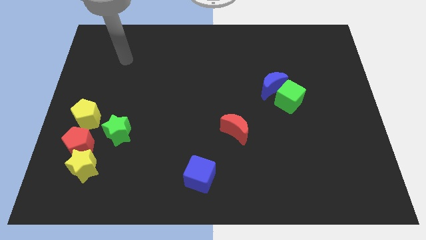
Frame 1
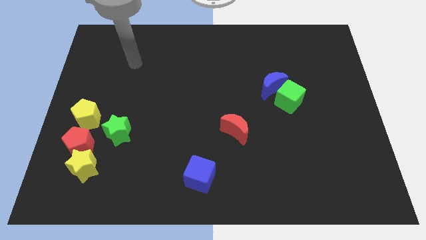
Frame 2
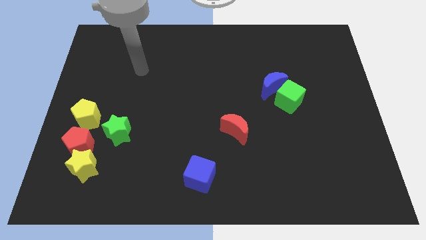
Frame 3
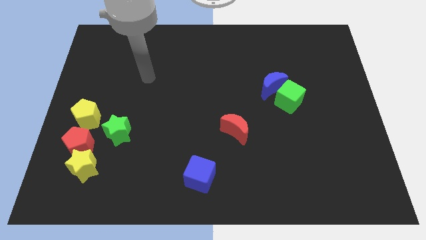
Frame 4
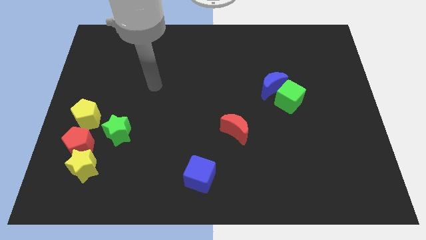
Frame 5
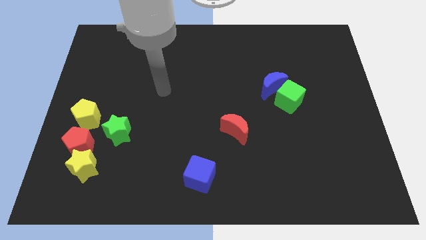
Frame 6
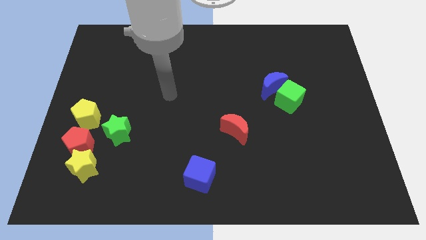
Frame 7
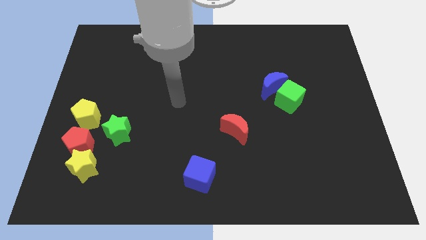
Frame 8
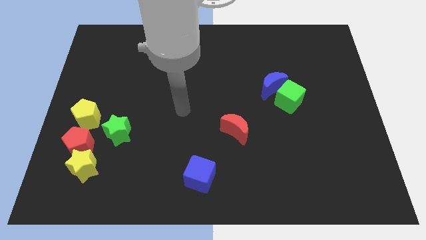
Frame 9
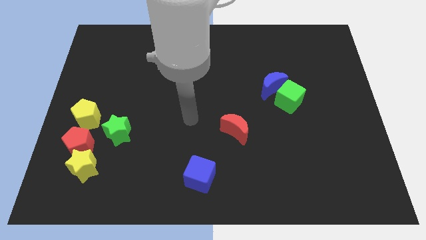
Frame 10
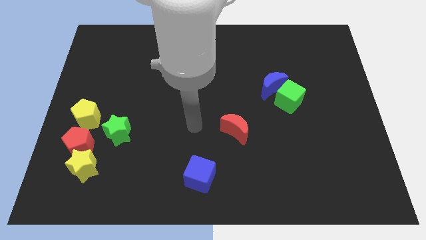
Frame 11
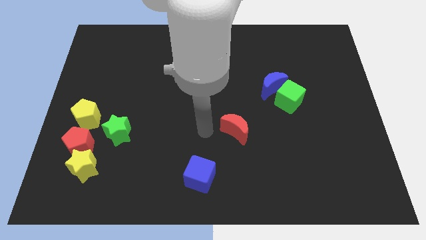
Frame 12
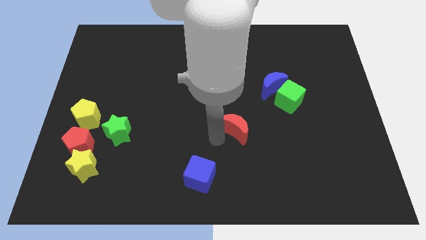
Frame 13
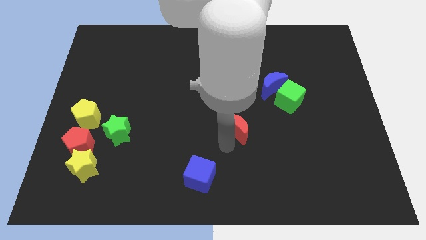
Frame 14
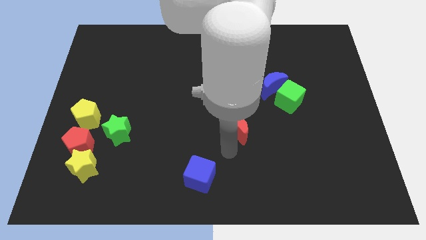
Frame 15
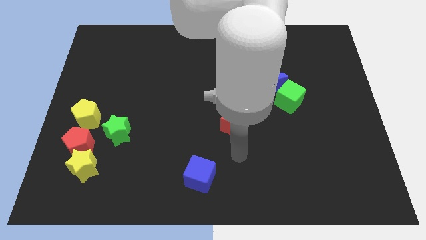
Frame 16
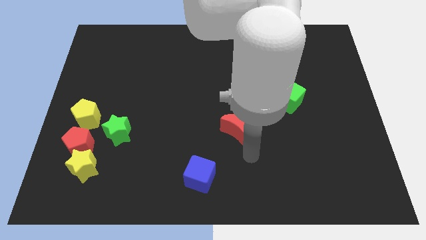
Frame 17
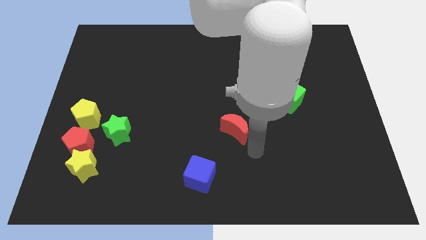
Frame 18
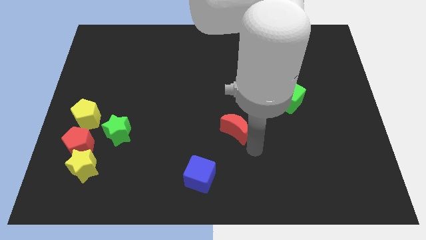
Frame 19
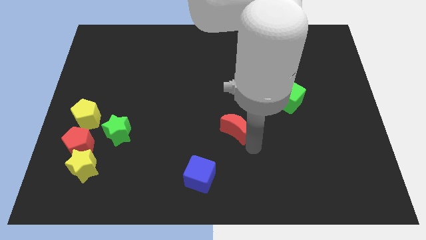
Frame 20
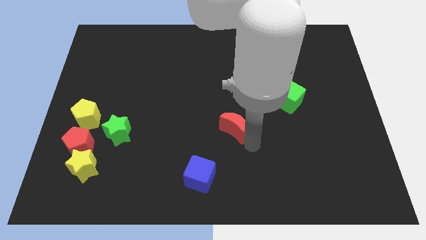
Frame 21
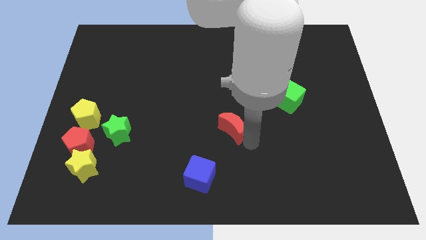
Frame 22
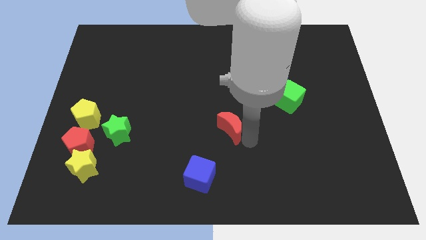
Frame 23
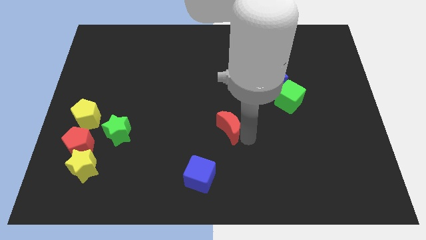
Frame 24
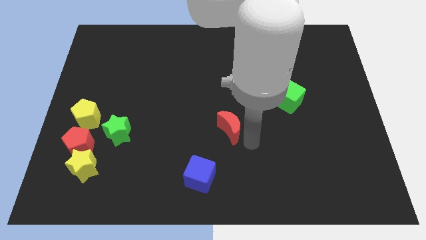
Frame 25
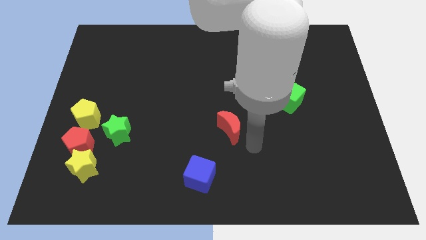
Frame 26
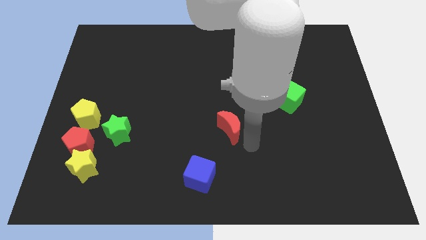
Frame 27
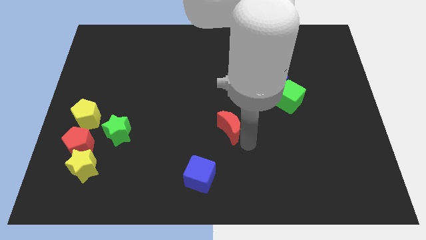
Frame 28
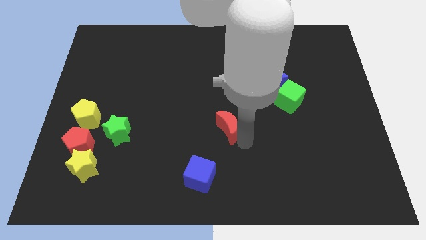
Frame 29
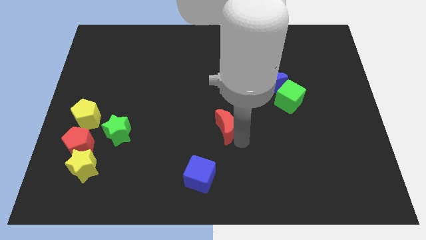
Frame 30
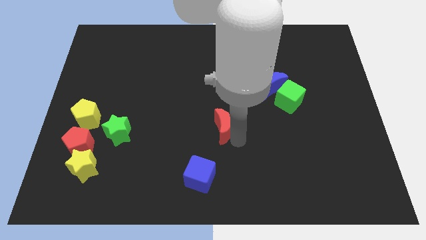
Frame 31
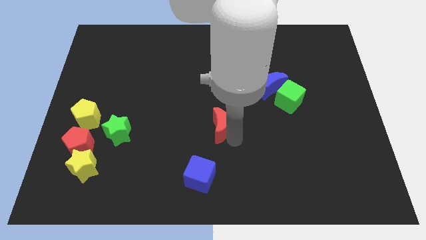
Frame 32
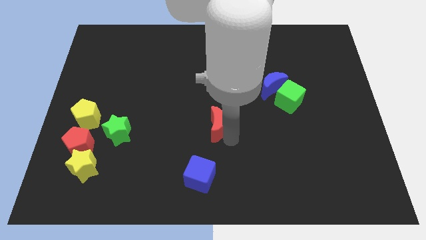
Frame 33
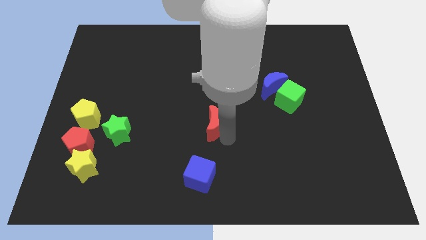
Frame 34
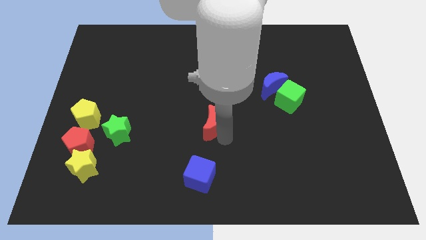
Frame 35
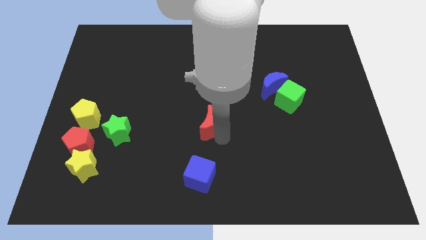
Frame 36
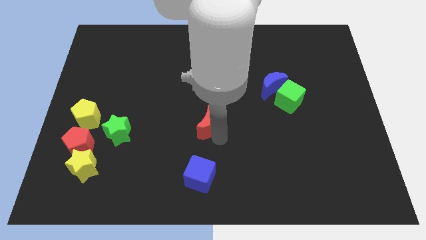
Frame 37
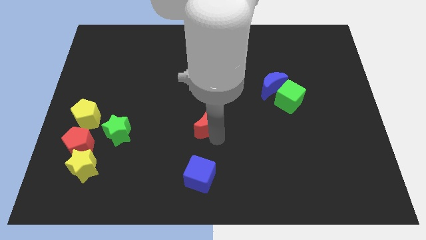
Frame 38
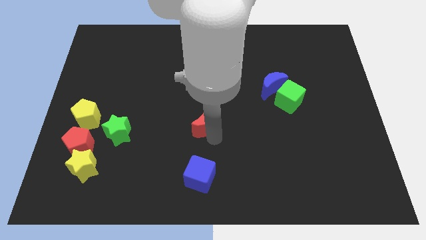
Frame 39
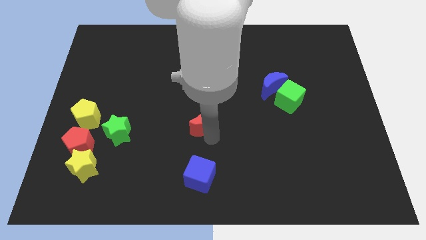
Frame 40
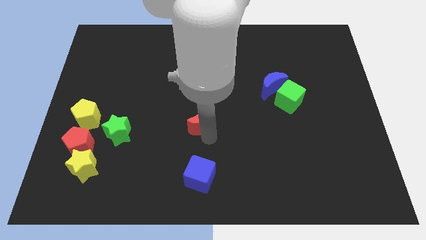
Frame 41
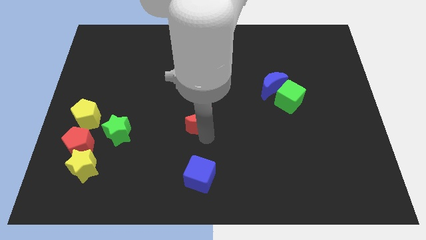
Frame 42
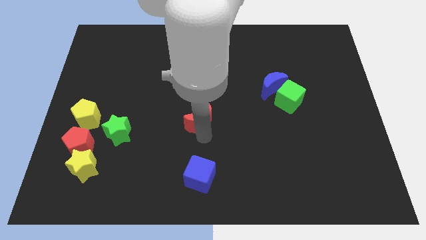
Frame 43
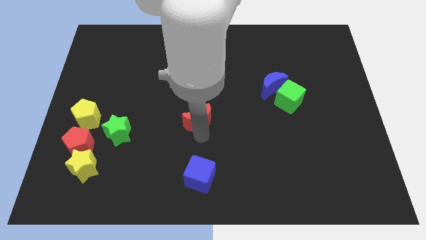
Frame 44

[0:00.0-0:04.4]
push the red moon upwards and then to the left somewhat

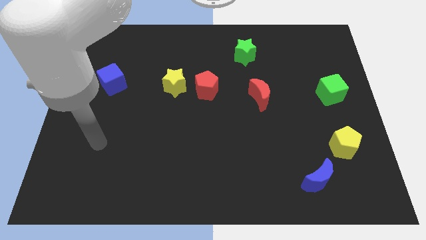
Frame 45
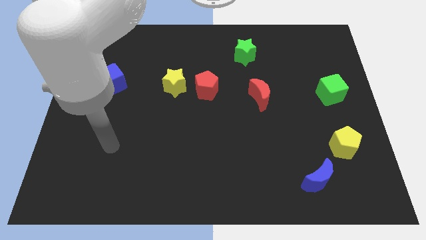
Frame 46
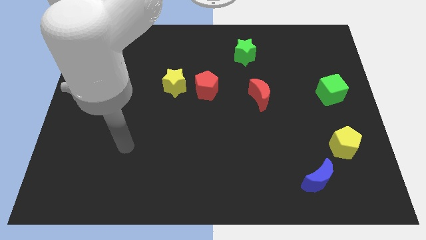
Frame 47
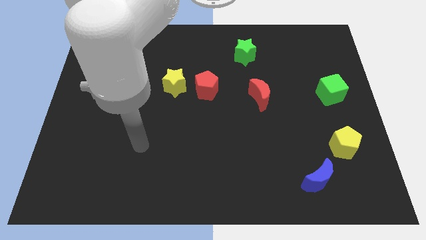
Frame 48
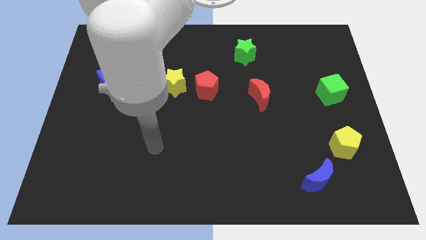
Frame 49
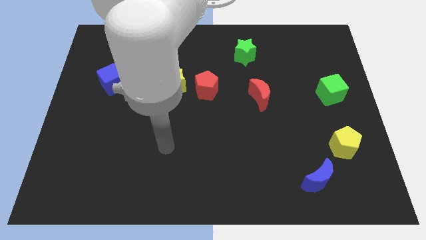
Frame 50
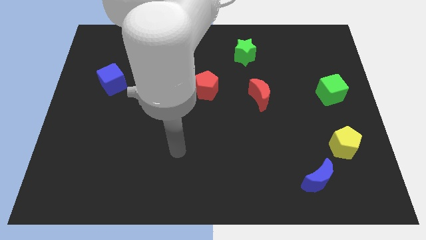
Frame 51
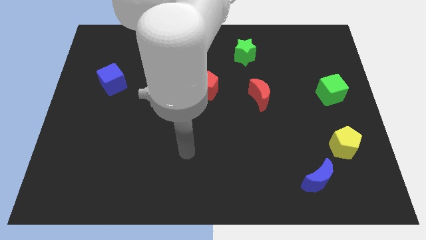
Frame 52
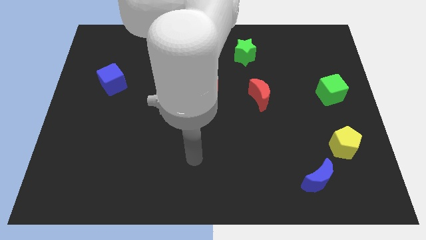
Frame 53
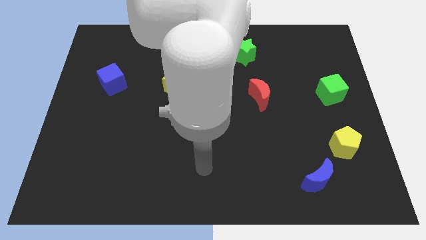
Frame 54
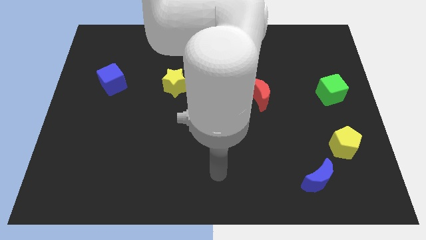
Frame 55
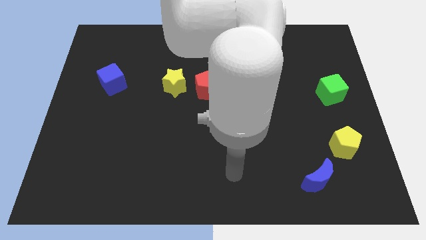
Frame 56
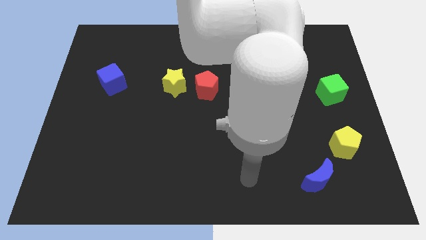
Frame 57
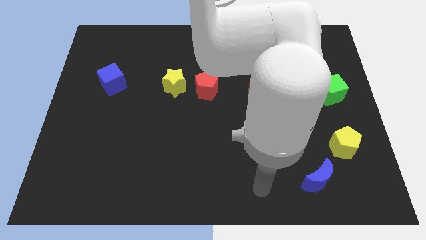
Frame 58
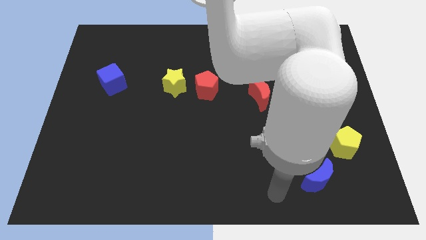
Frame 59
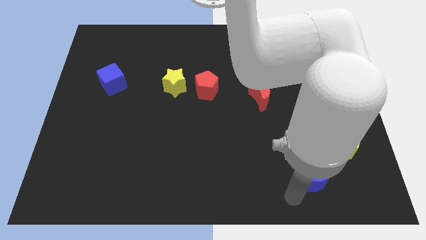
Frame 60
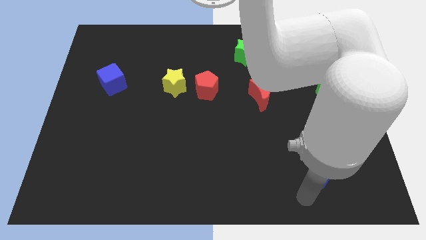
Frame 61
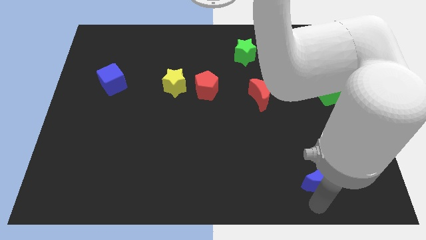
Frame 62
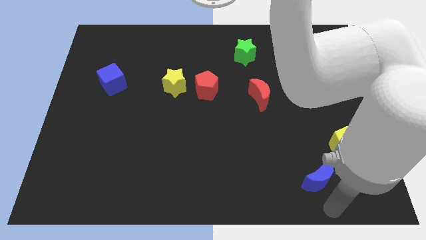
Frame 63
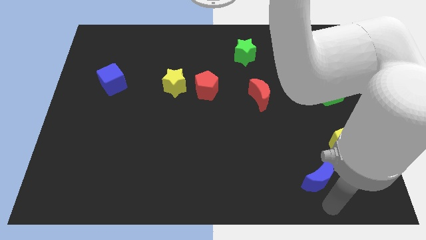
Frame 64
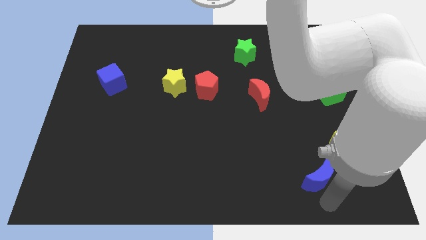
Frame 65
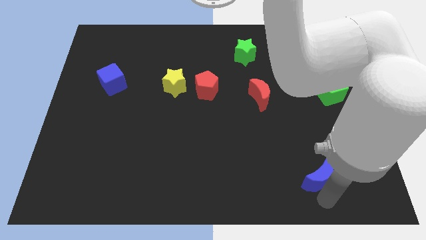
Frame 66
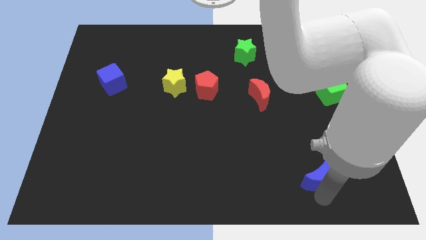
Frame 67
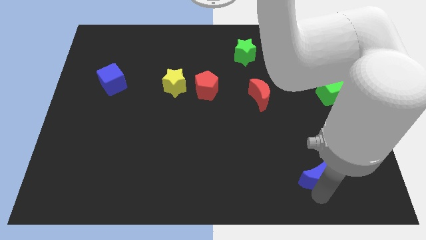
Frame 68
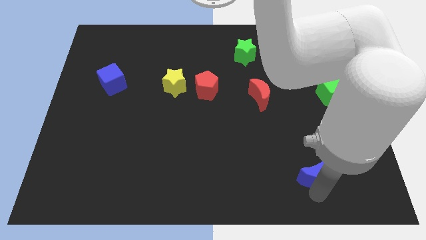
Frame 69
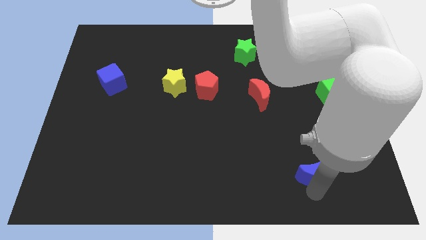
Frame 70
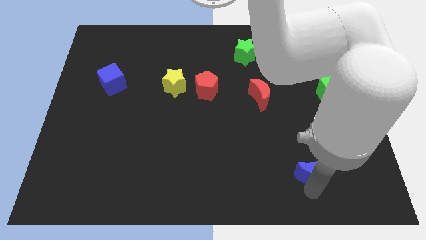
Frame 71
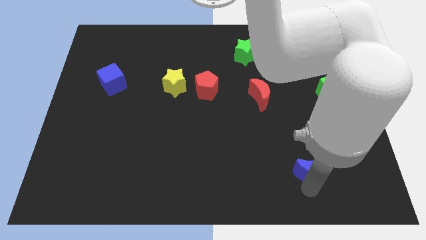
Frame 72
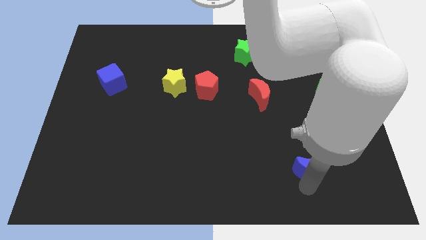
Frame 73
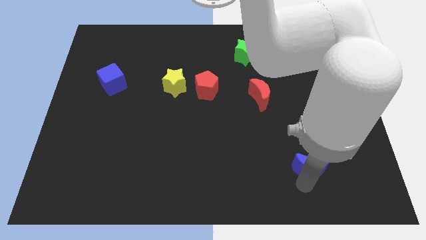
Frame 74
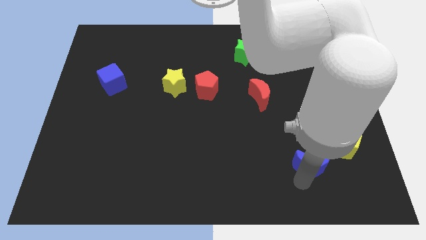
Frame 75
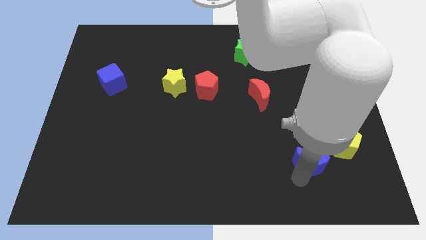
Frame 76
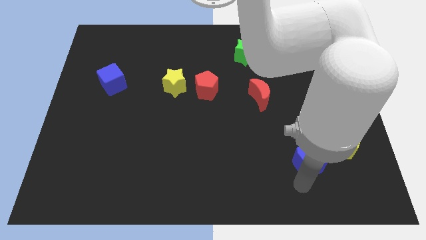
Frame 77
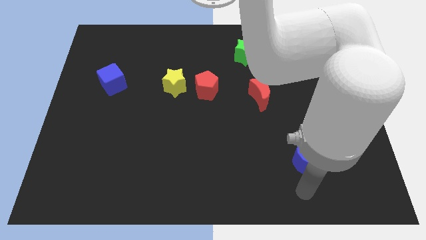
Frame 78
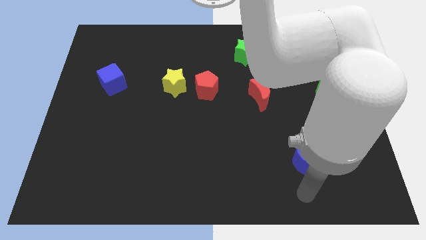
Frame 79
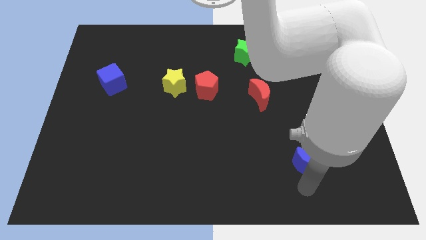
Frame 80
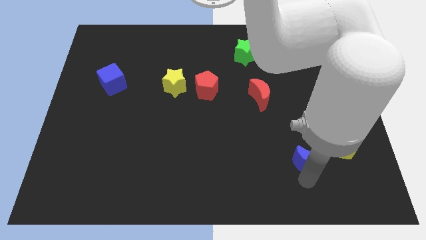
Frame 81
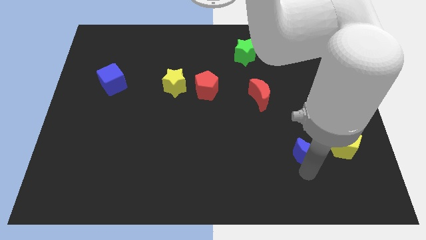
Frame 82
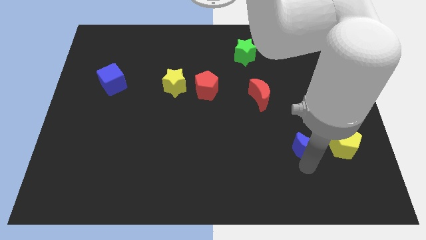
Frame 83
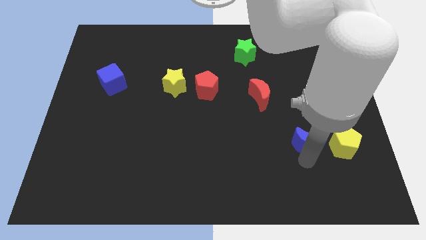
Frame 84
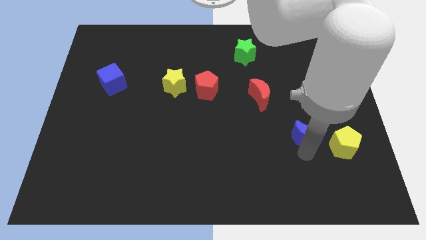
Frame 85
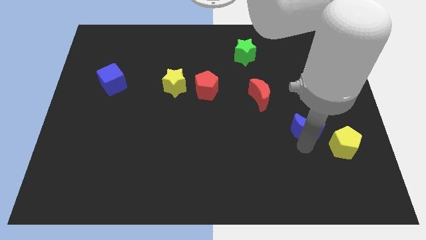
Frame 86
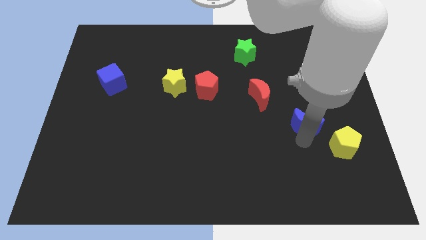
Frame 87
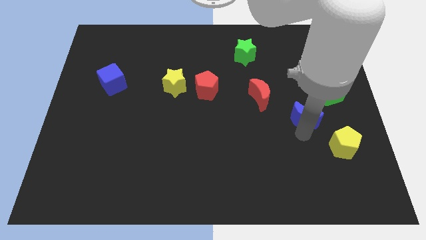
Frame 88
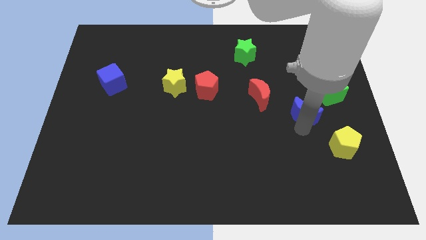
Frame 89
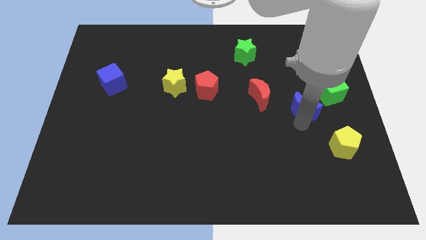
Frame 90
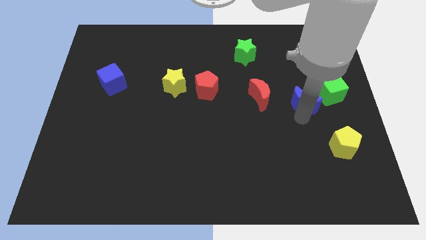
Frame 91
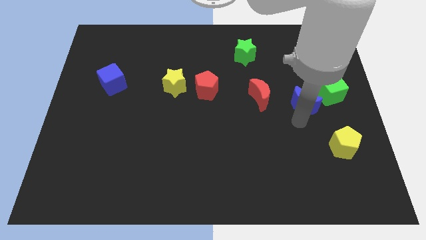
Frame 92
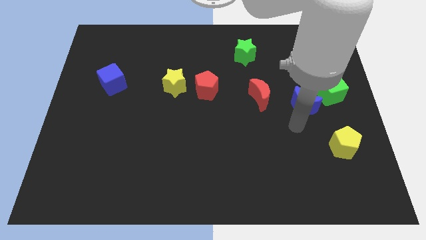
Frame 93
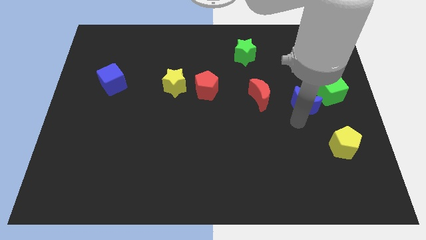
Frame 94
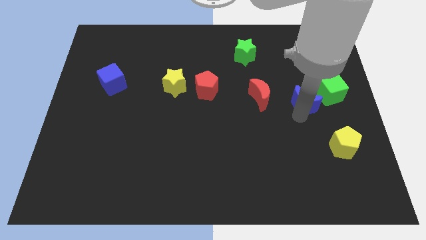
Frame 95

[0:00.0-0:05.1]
move the blue moon up
